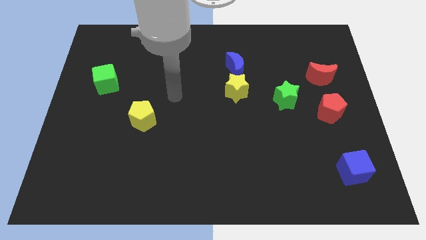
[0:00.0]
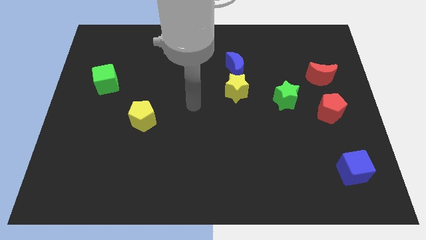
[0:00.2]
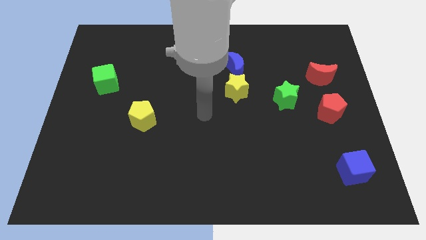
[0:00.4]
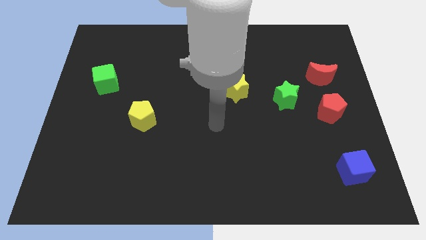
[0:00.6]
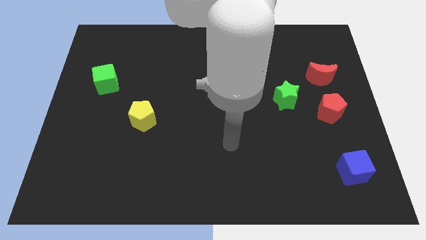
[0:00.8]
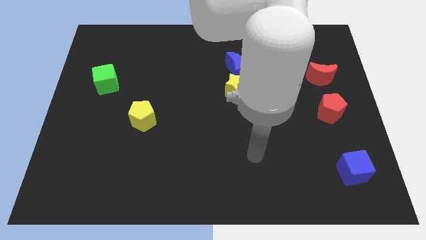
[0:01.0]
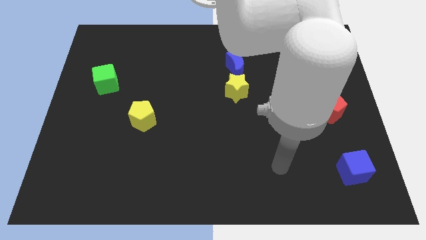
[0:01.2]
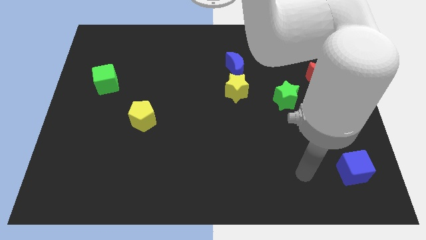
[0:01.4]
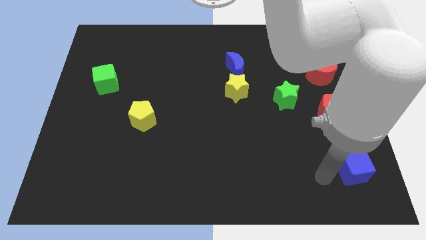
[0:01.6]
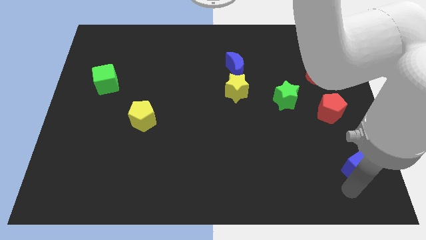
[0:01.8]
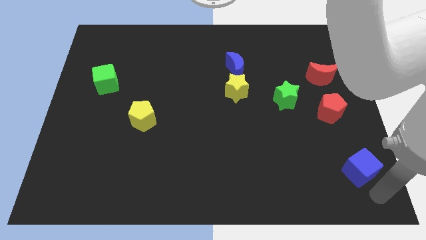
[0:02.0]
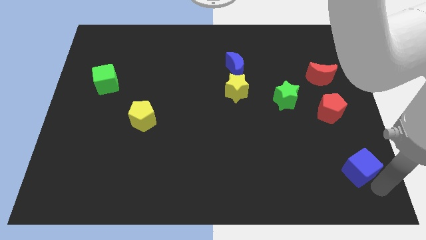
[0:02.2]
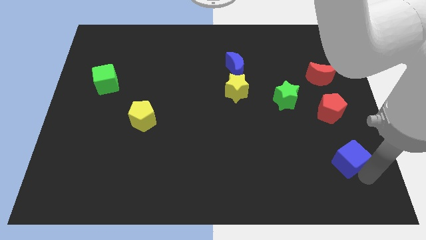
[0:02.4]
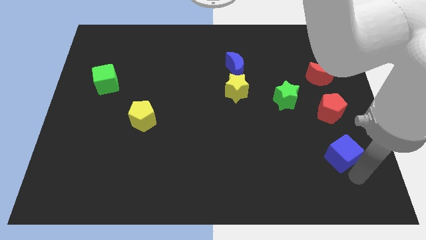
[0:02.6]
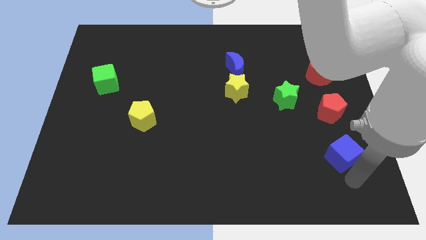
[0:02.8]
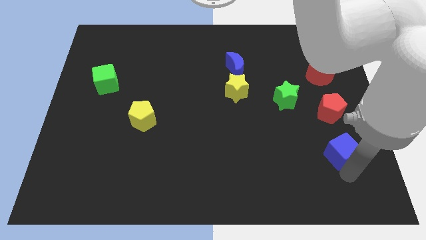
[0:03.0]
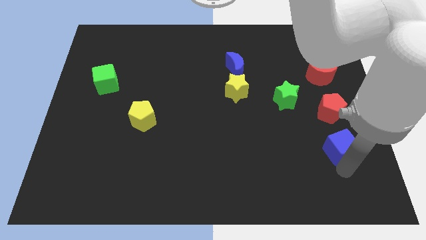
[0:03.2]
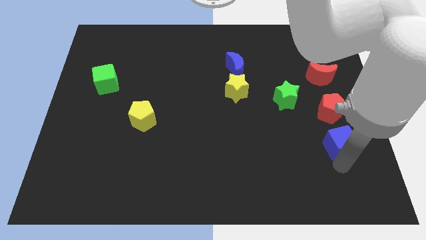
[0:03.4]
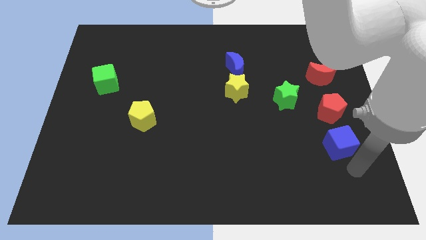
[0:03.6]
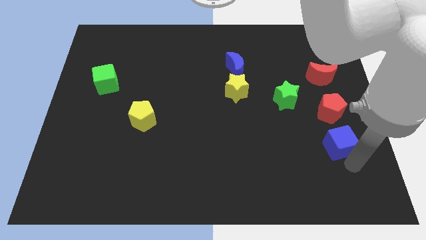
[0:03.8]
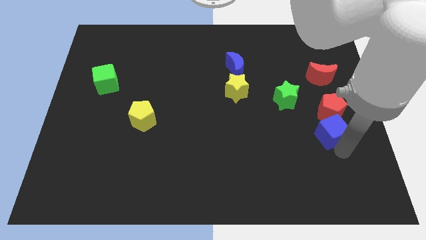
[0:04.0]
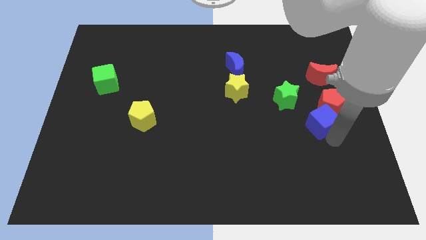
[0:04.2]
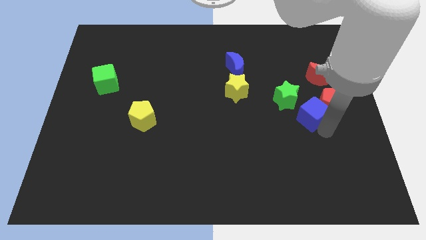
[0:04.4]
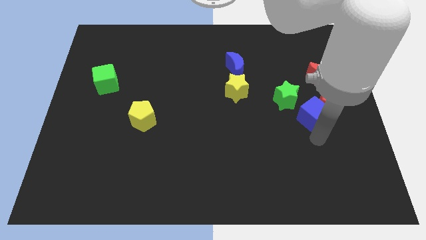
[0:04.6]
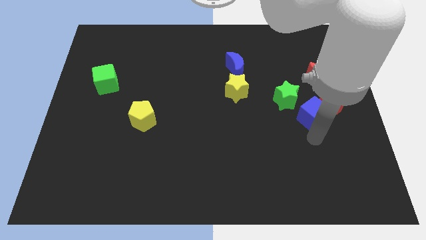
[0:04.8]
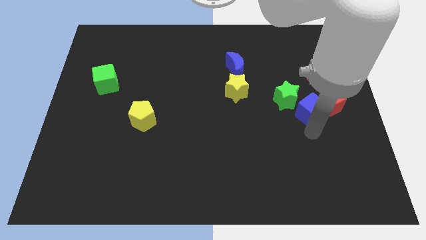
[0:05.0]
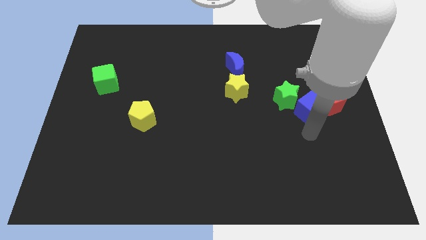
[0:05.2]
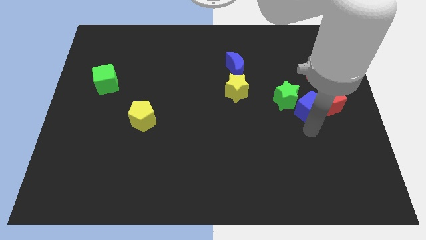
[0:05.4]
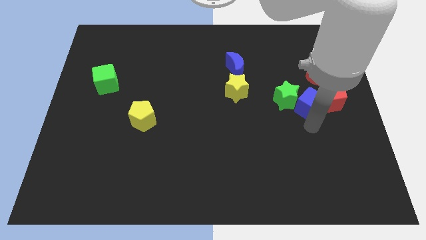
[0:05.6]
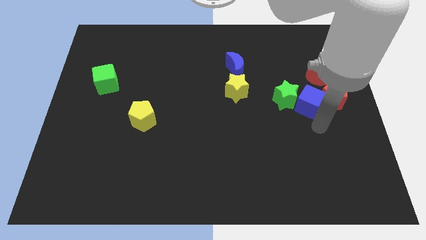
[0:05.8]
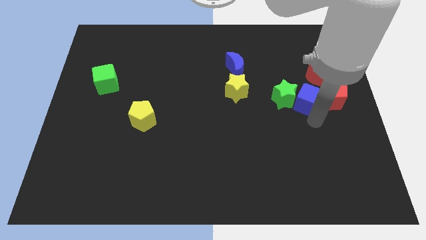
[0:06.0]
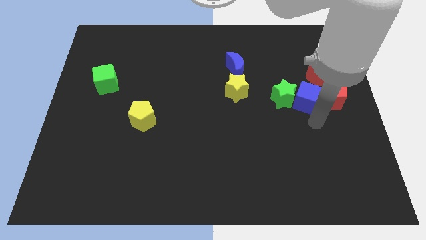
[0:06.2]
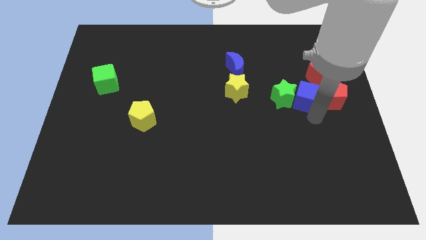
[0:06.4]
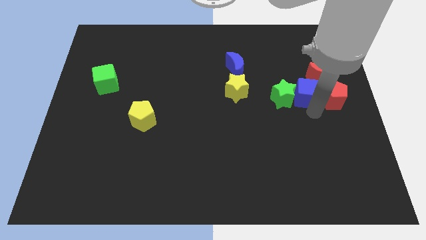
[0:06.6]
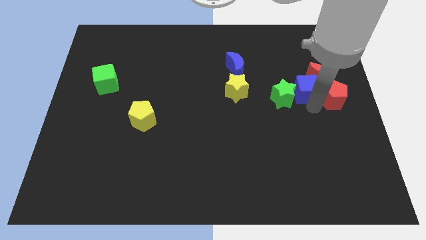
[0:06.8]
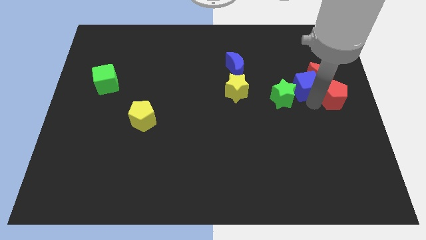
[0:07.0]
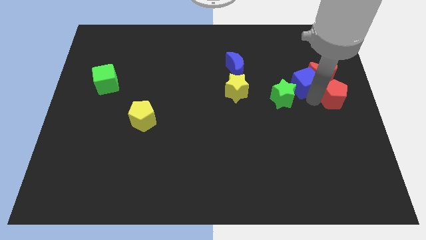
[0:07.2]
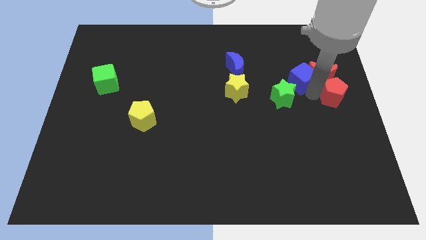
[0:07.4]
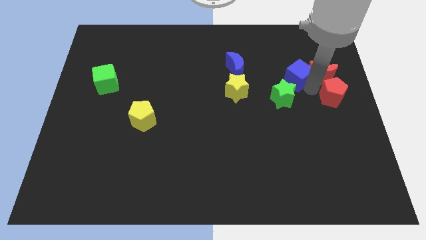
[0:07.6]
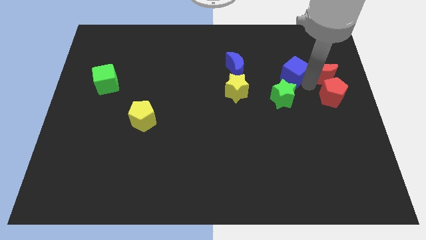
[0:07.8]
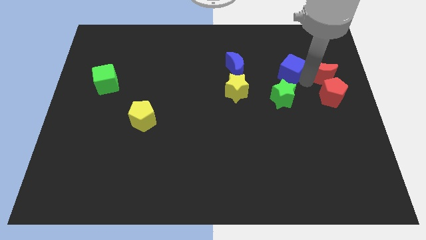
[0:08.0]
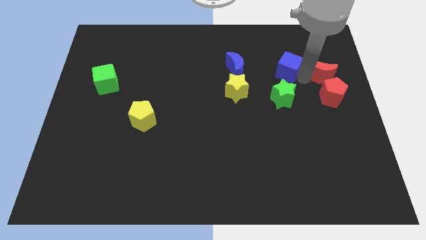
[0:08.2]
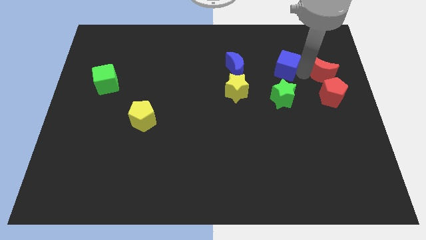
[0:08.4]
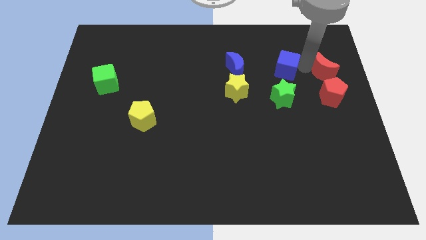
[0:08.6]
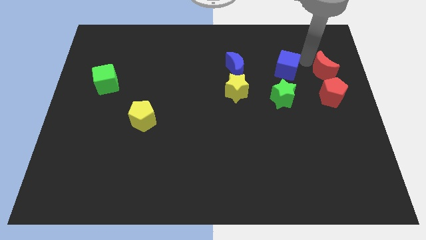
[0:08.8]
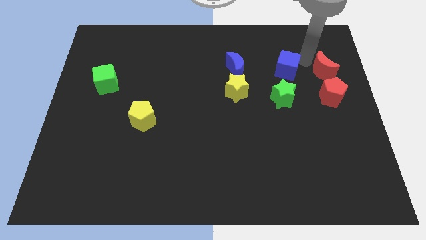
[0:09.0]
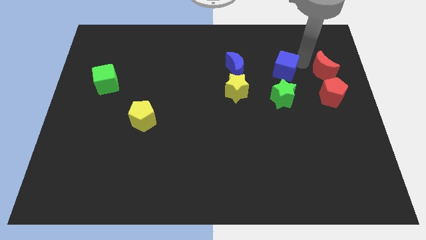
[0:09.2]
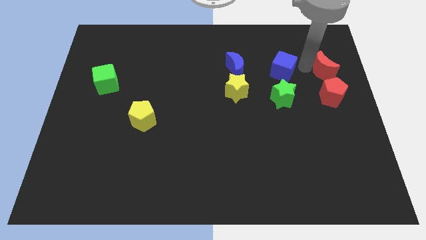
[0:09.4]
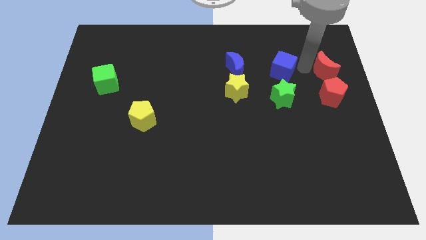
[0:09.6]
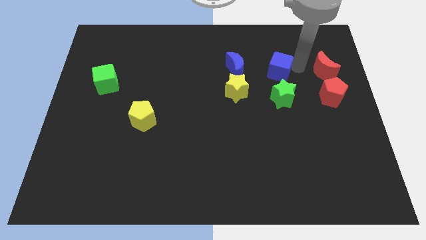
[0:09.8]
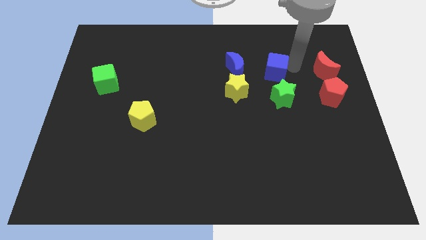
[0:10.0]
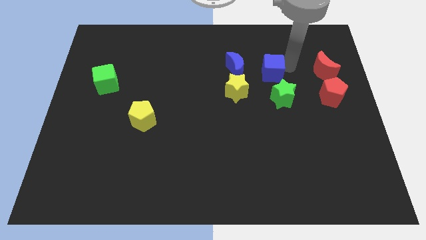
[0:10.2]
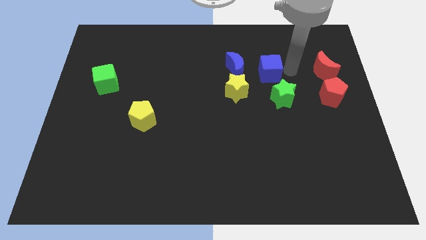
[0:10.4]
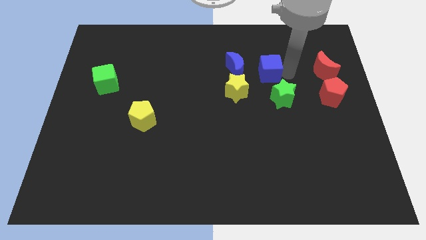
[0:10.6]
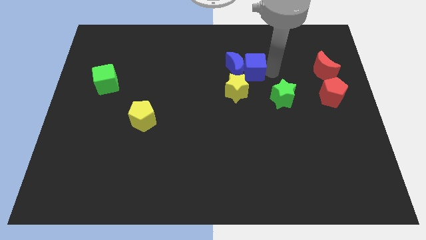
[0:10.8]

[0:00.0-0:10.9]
slide the blue cube next to the blue moon

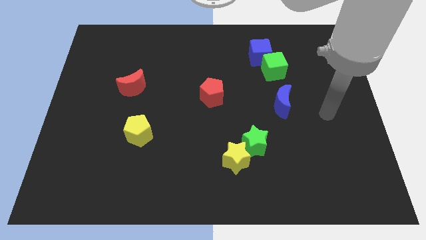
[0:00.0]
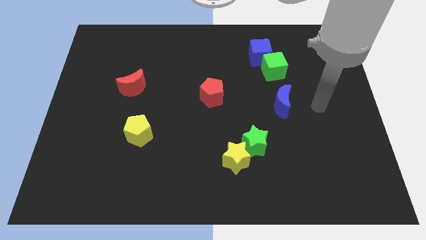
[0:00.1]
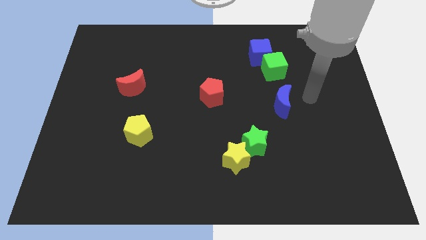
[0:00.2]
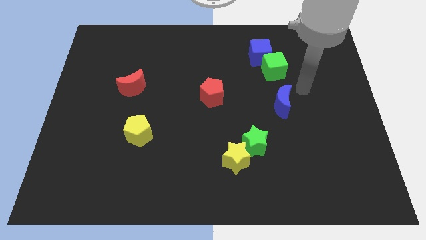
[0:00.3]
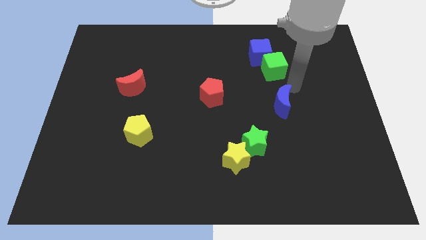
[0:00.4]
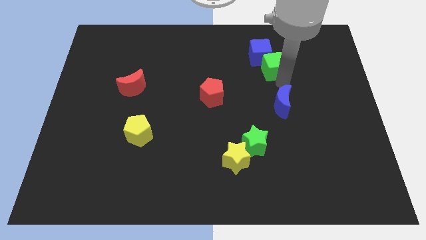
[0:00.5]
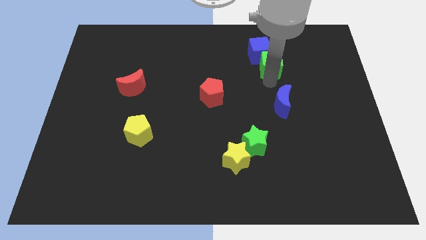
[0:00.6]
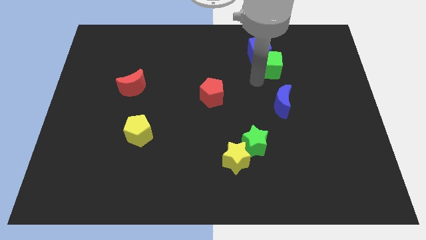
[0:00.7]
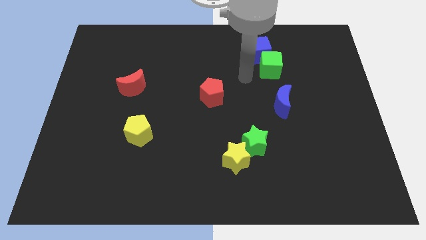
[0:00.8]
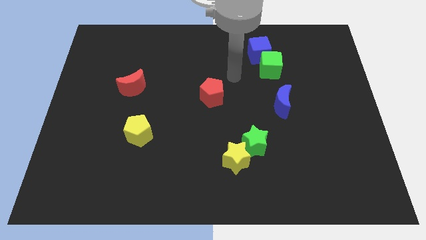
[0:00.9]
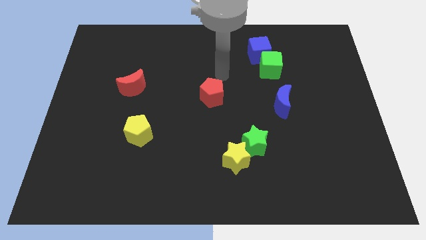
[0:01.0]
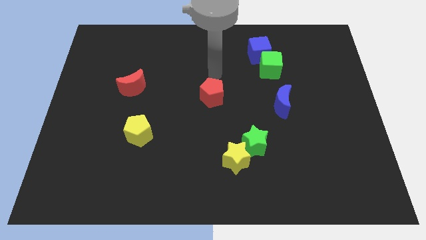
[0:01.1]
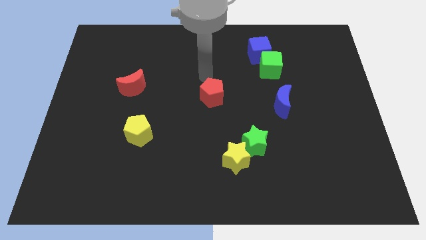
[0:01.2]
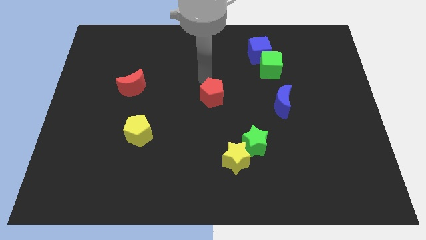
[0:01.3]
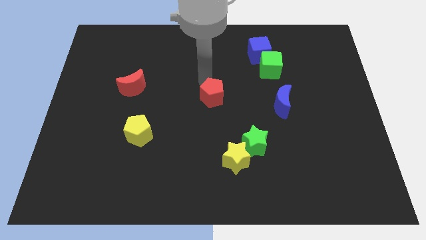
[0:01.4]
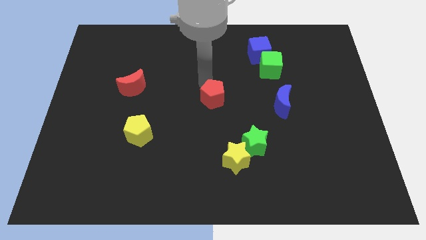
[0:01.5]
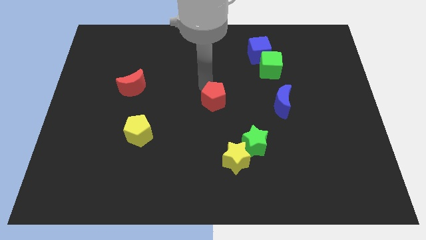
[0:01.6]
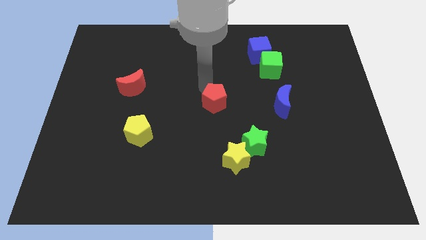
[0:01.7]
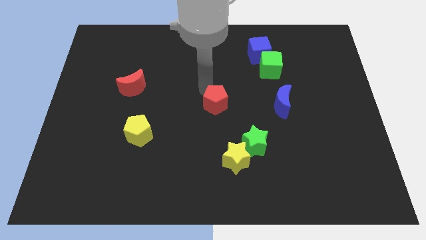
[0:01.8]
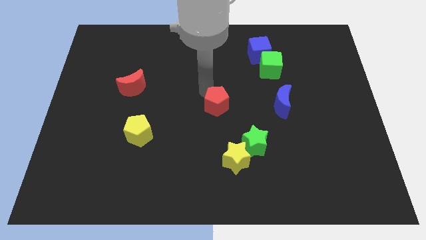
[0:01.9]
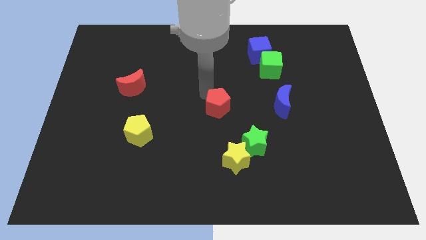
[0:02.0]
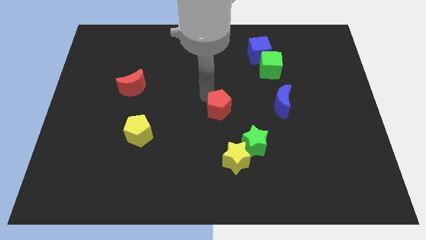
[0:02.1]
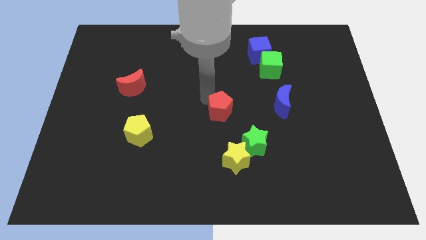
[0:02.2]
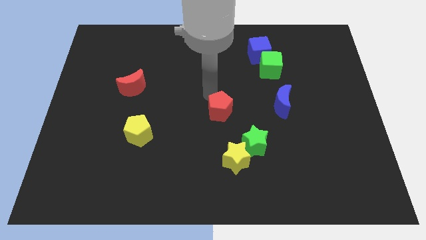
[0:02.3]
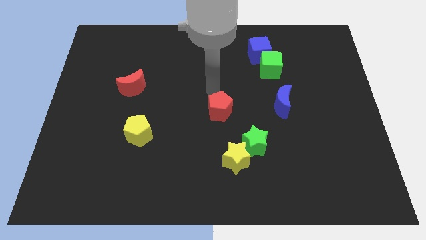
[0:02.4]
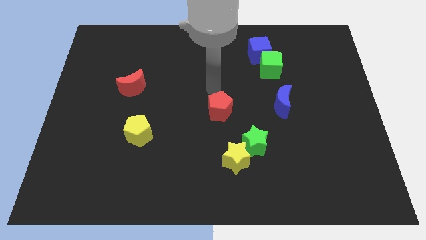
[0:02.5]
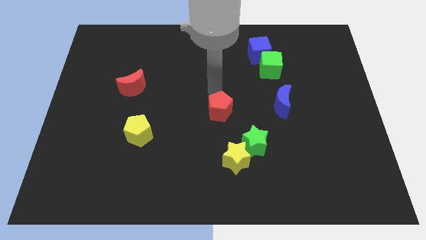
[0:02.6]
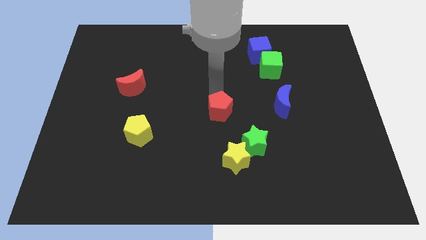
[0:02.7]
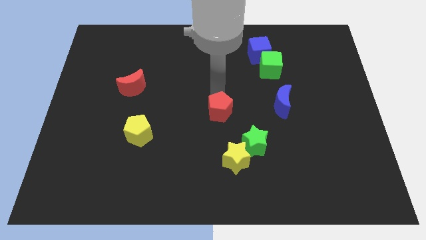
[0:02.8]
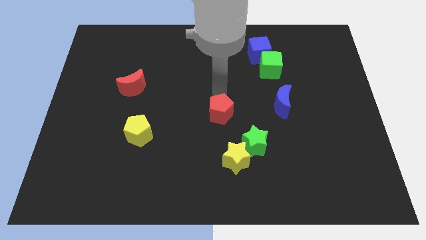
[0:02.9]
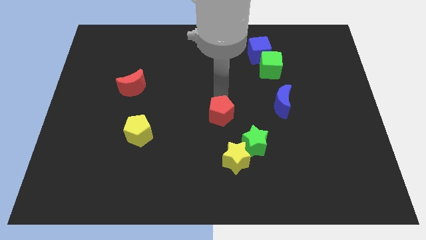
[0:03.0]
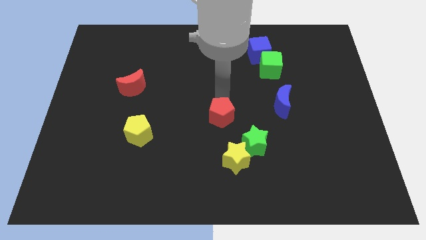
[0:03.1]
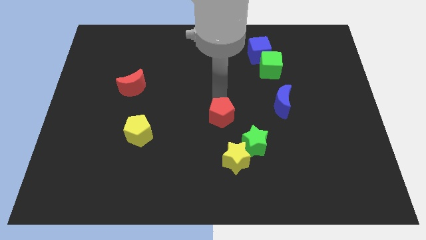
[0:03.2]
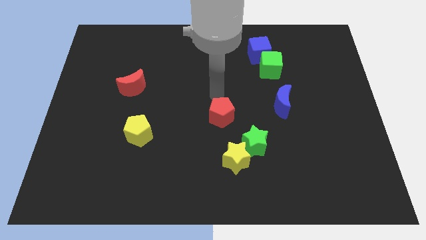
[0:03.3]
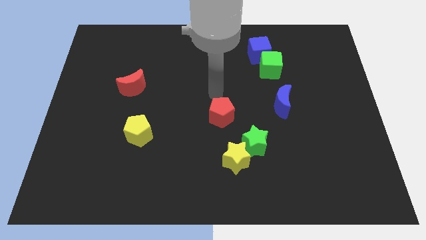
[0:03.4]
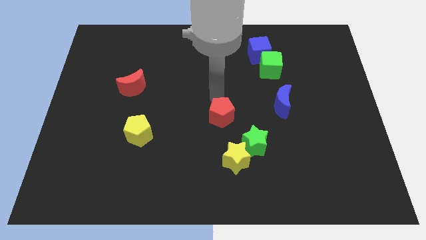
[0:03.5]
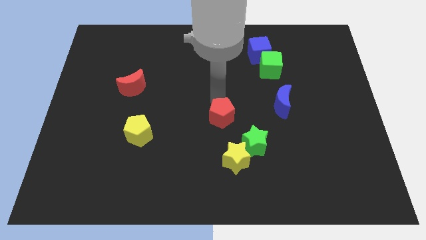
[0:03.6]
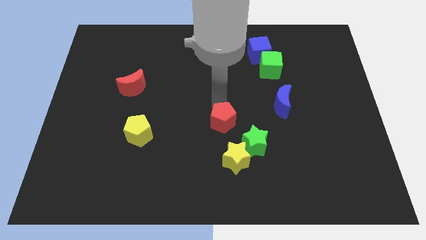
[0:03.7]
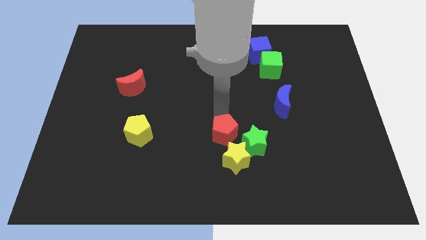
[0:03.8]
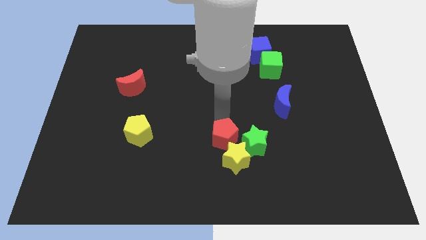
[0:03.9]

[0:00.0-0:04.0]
put the red pentagon towards the yellow star
